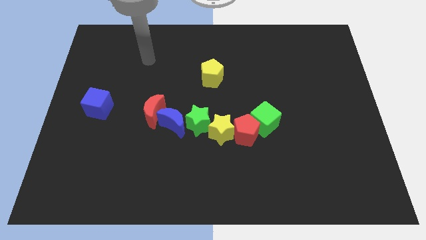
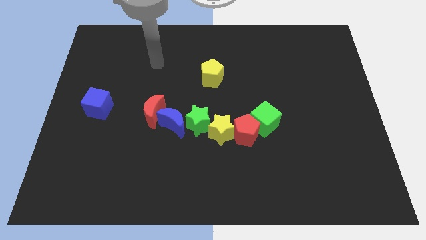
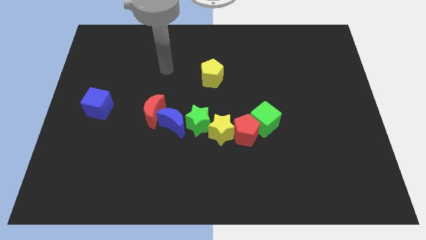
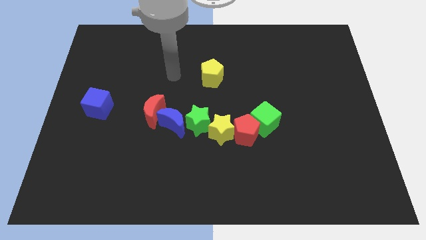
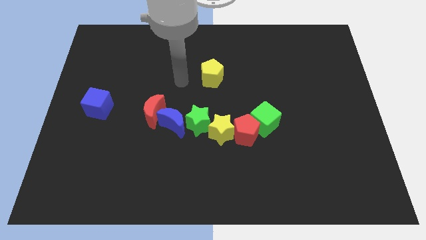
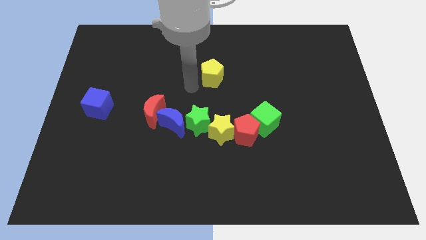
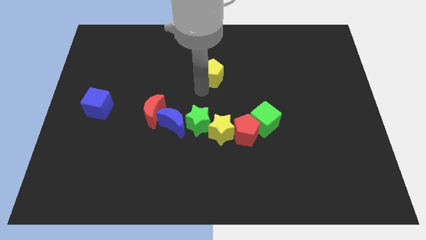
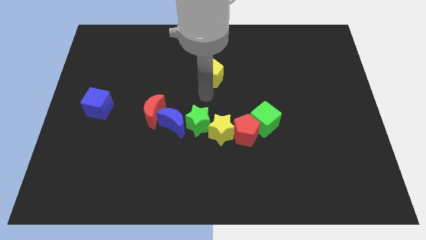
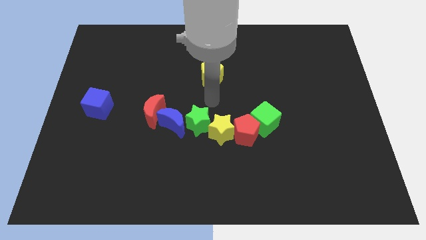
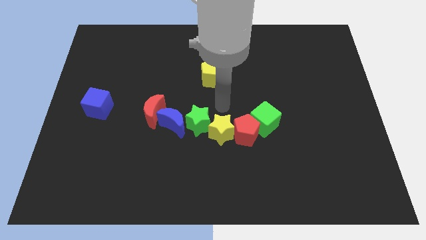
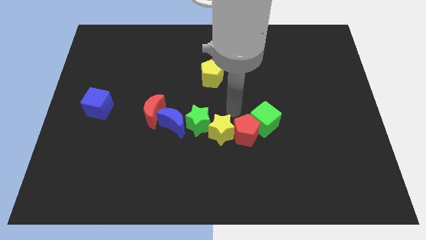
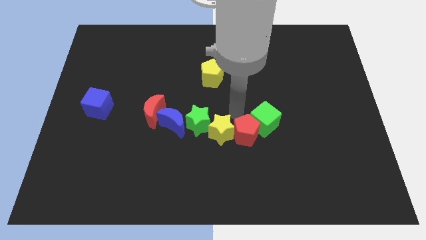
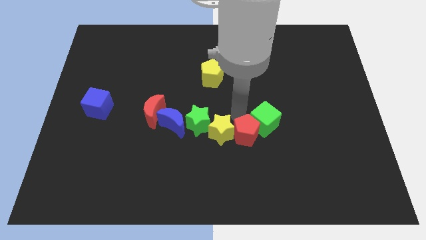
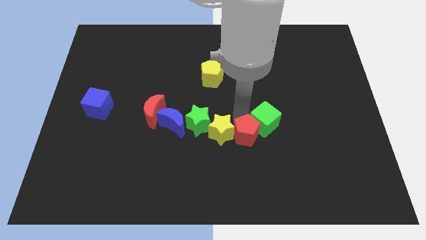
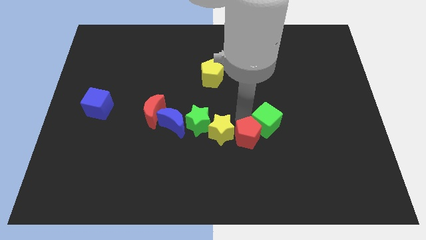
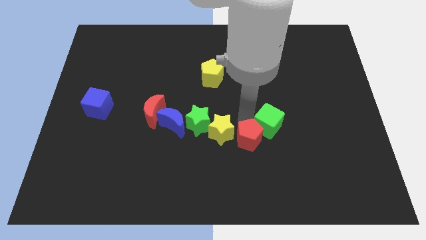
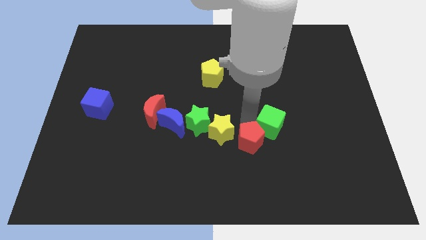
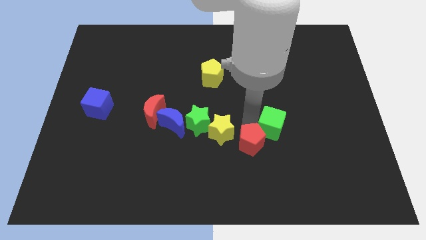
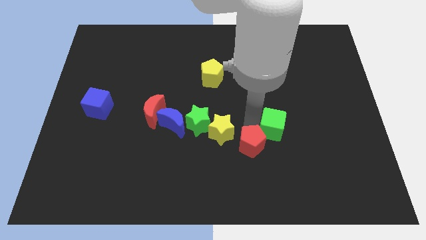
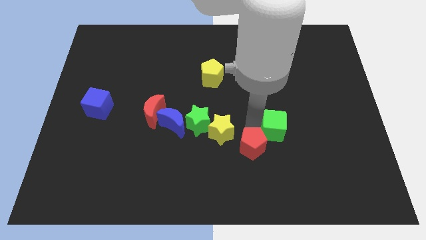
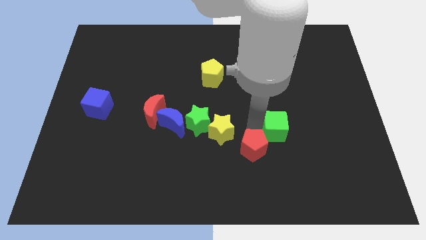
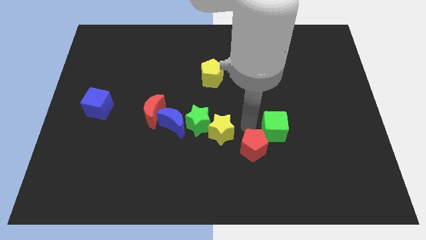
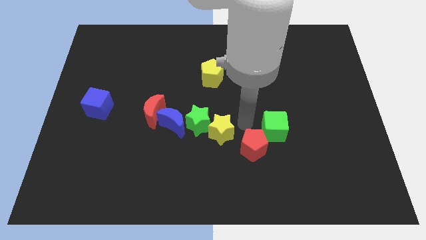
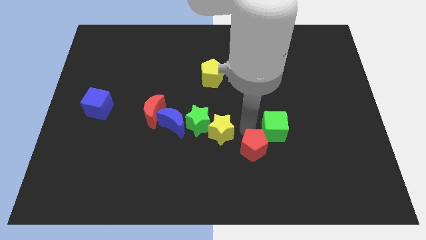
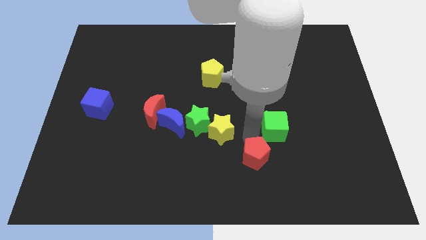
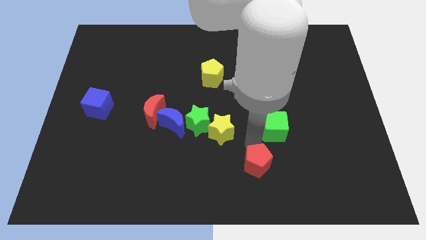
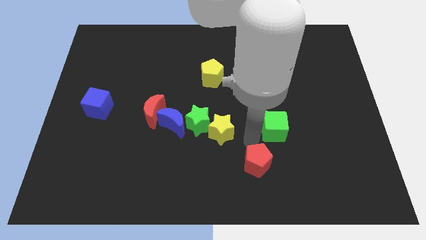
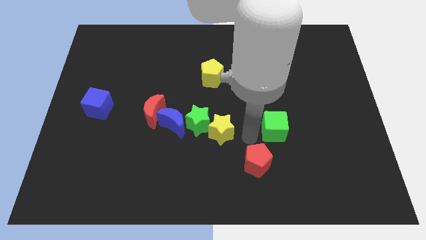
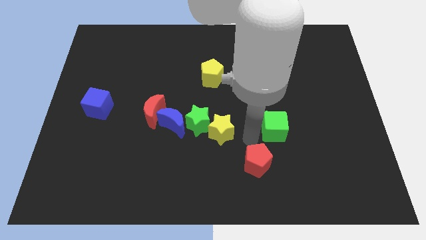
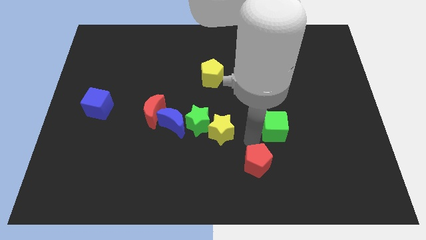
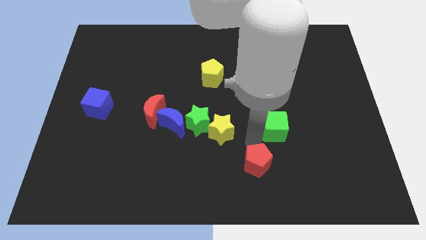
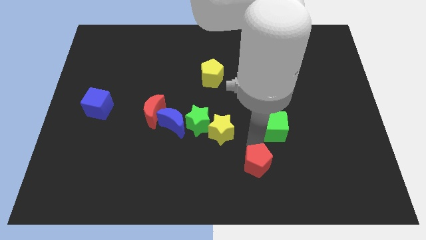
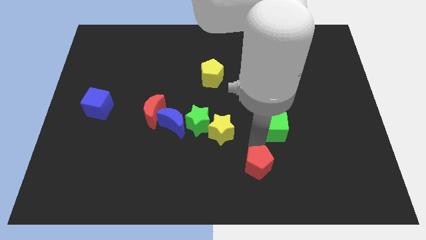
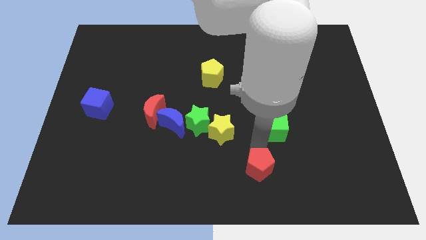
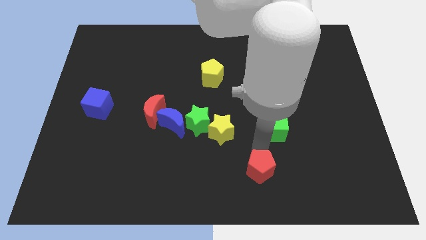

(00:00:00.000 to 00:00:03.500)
move the red pentagon away from the green cube and yellow star

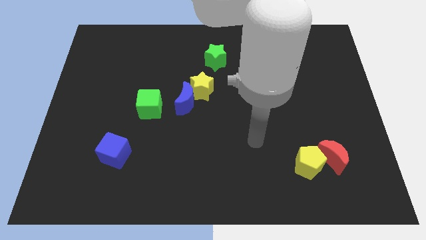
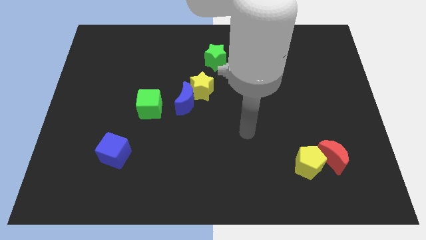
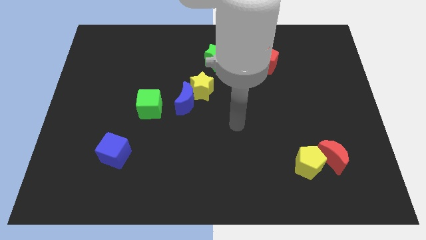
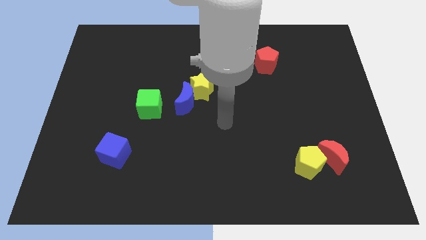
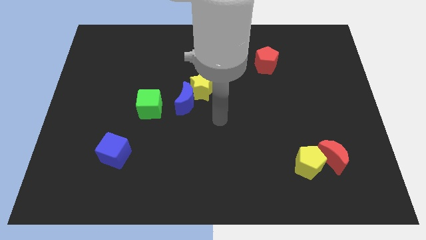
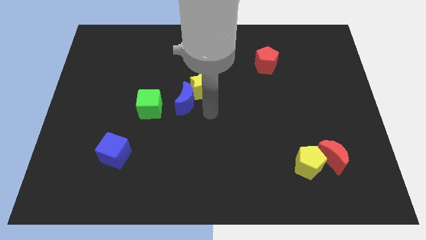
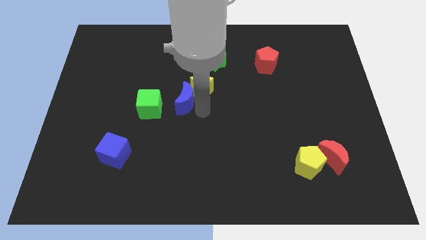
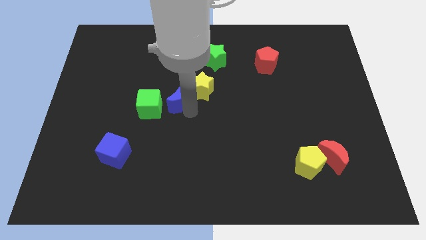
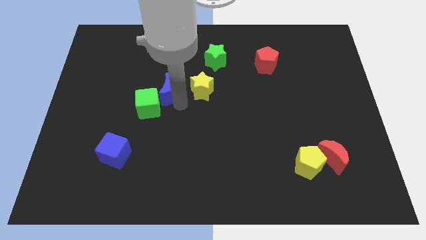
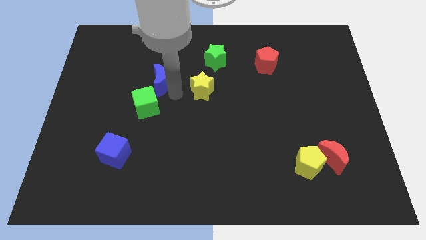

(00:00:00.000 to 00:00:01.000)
move the yellow star away from the blue moon

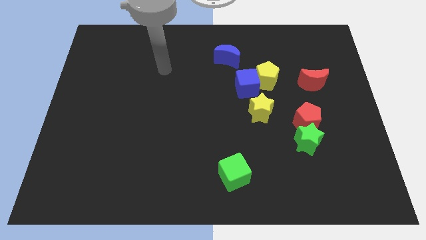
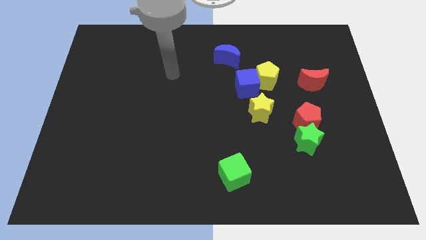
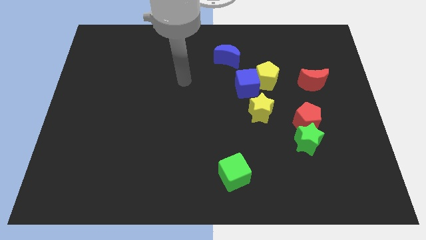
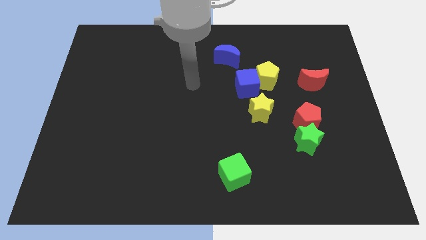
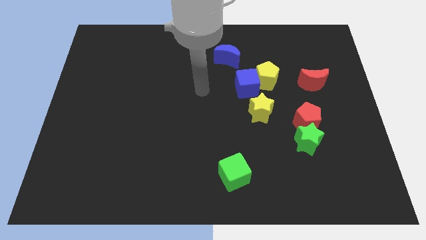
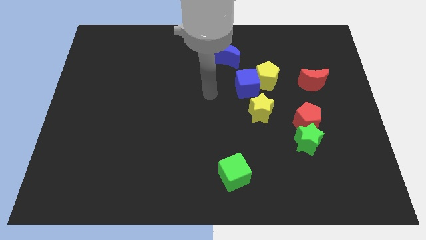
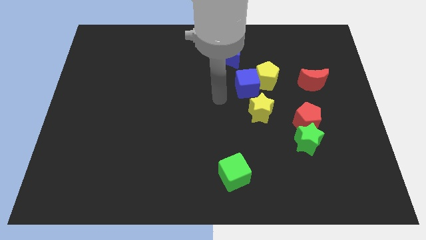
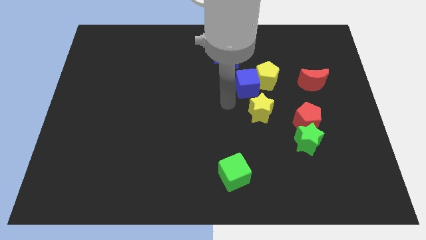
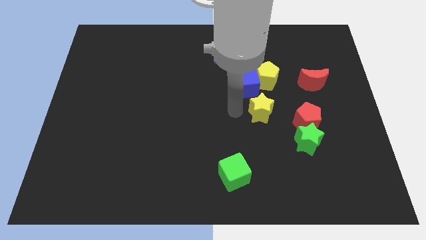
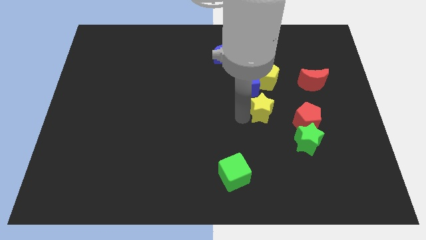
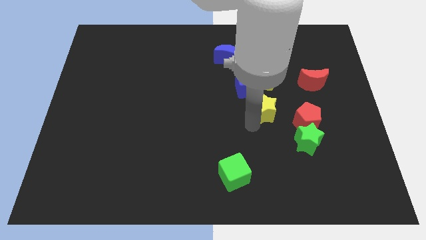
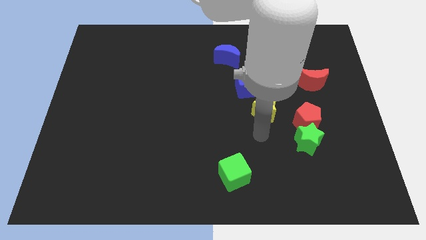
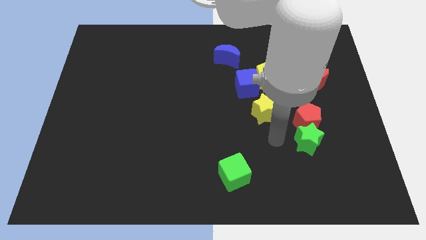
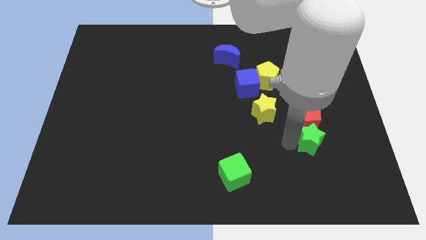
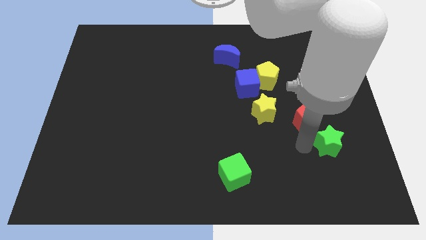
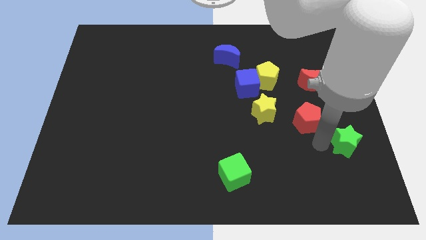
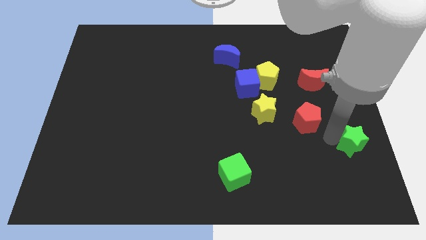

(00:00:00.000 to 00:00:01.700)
move the red pentagon away from the green star

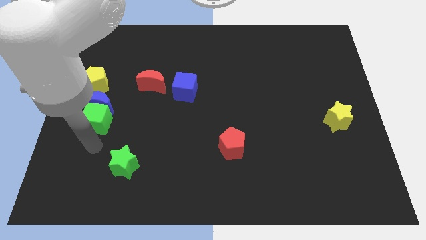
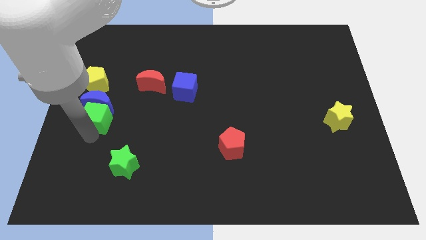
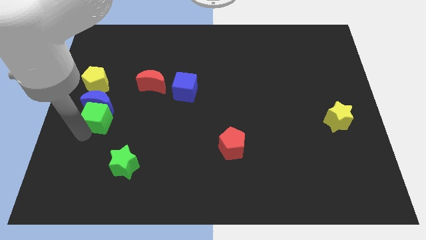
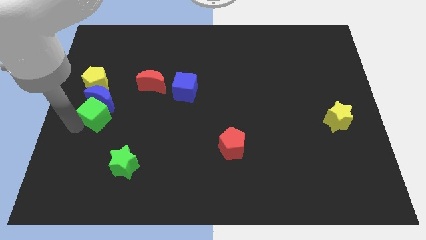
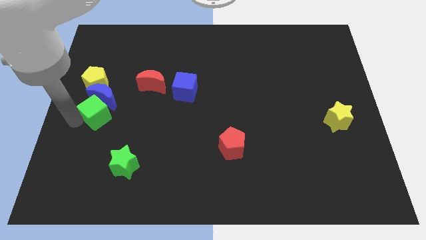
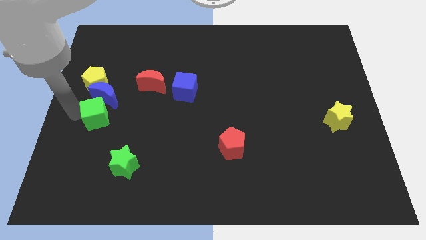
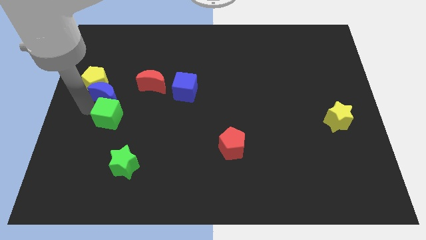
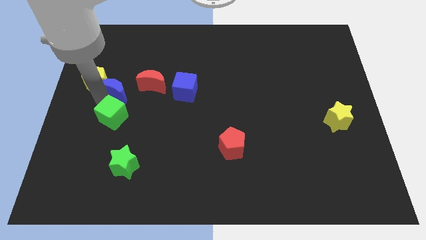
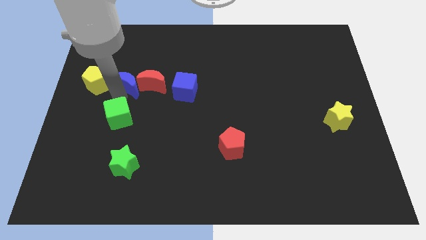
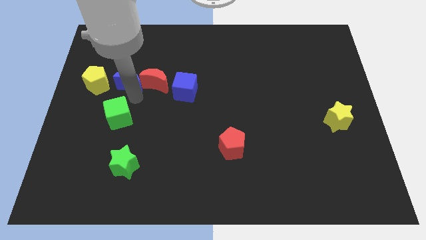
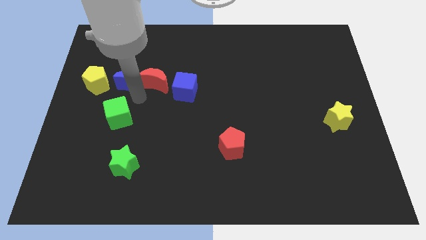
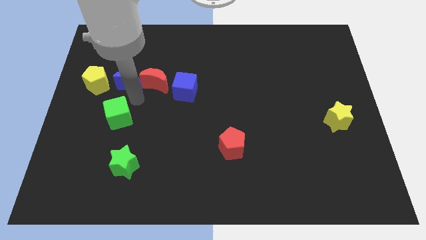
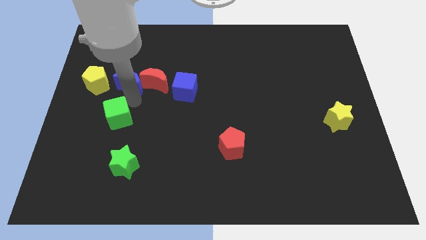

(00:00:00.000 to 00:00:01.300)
pull the green cube apart from the blue moon

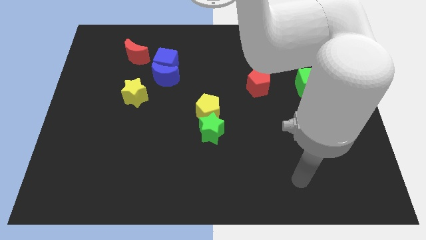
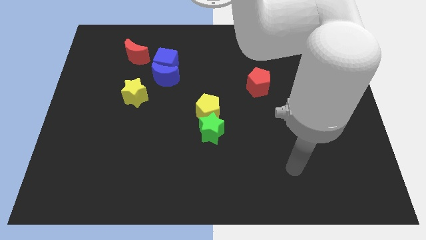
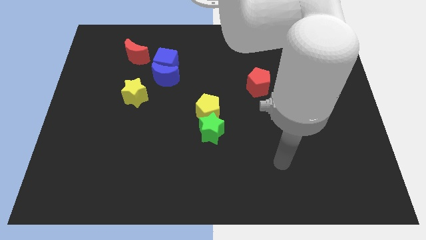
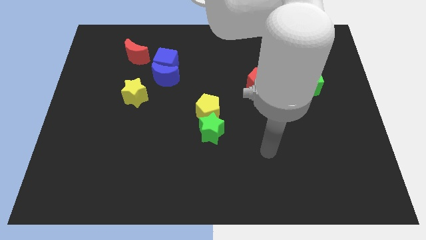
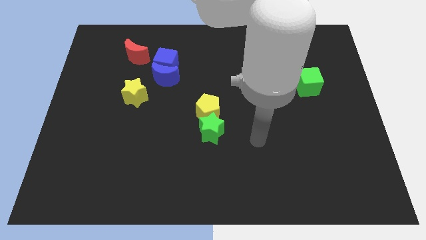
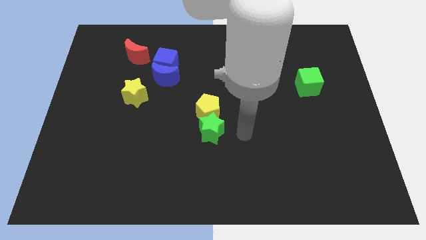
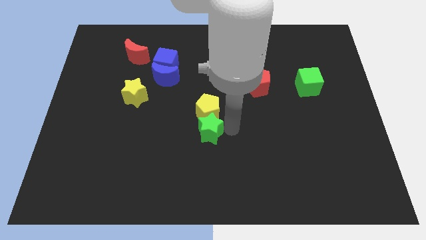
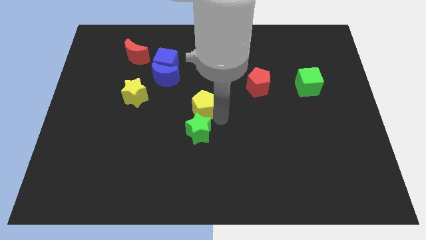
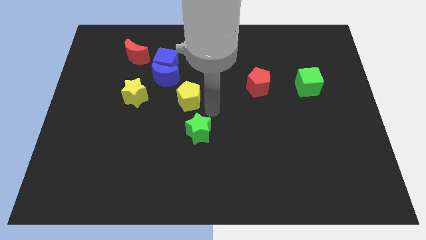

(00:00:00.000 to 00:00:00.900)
move the green star away from the yellow pentagon

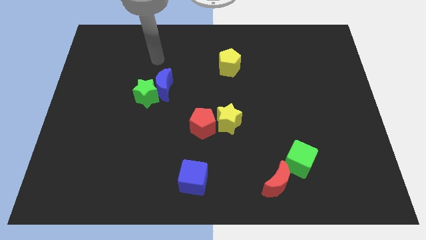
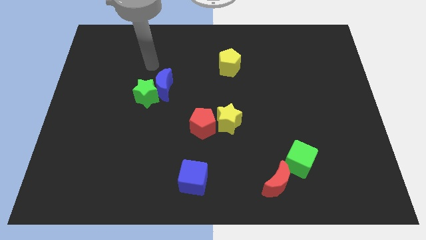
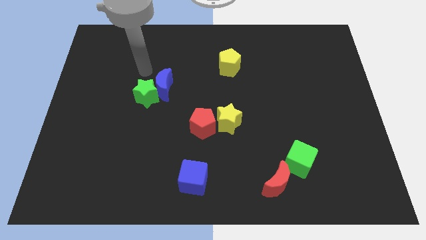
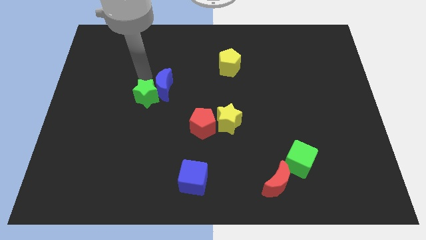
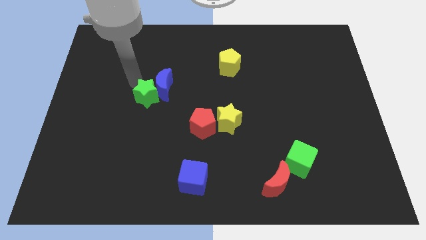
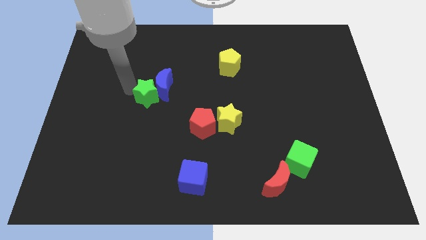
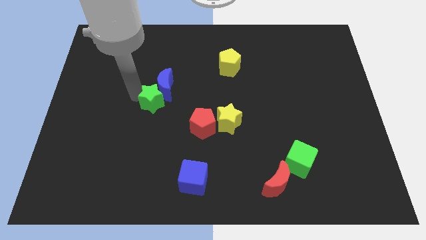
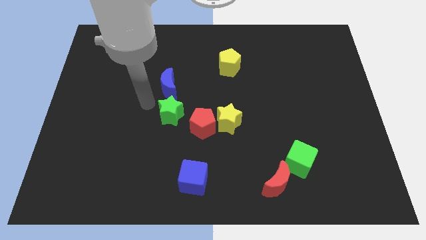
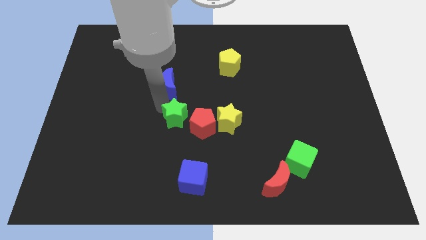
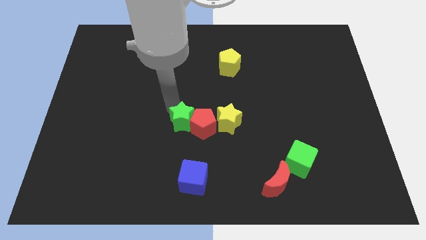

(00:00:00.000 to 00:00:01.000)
pull the blue moon apart from the green star
